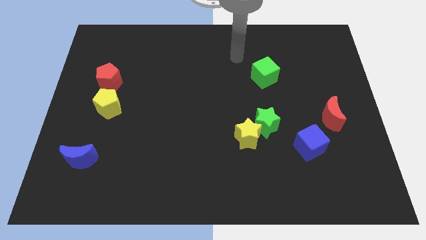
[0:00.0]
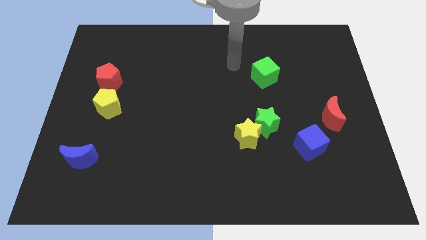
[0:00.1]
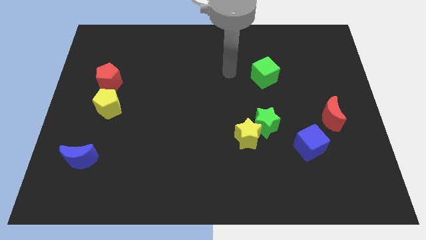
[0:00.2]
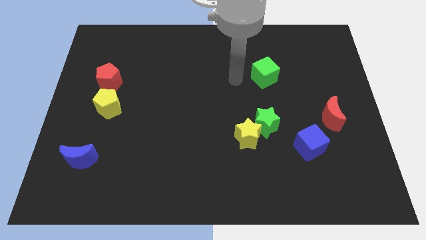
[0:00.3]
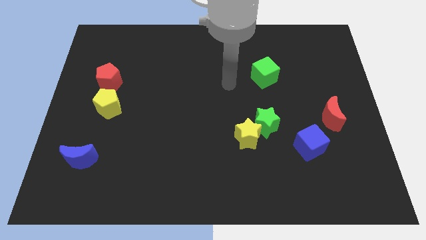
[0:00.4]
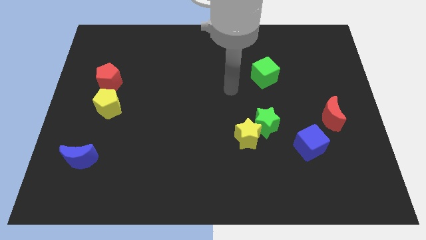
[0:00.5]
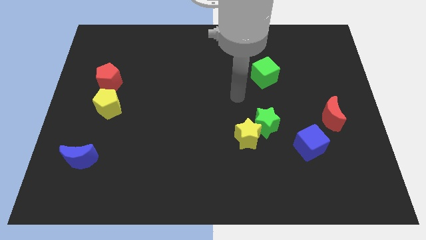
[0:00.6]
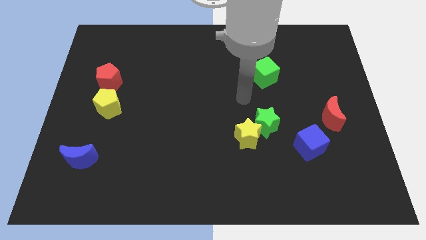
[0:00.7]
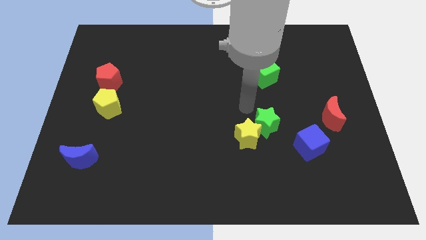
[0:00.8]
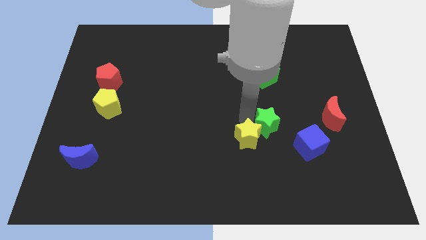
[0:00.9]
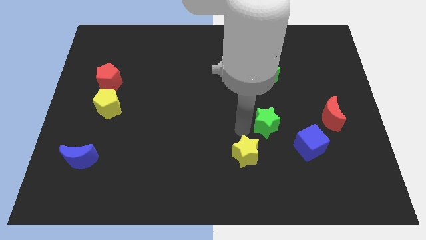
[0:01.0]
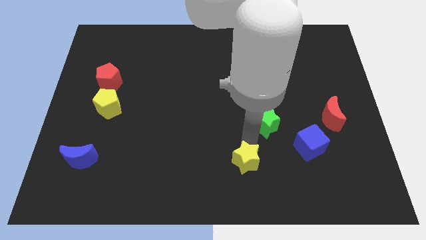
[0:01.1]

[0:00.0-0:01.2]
move the green star away from the yellow star

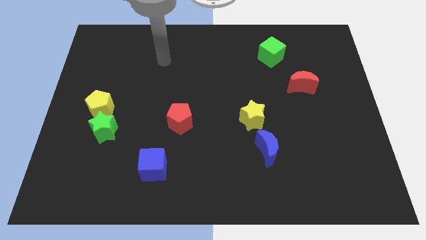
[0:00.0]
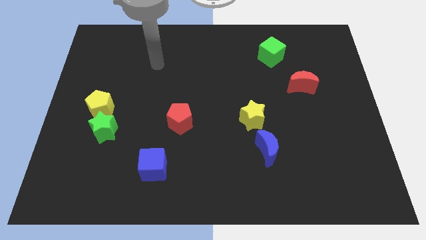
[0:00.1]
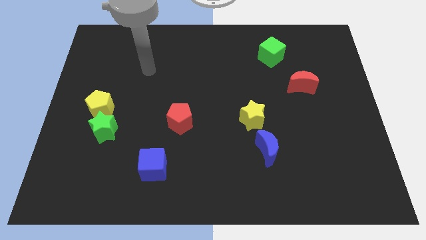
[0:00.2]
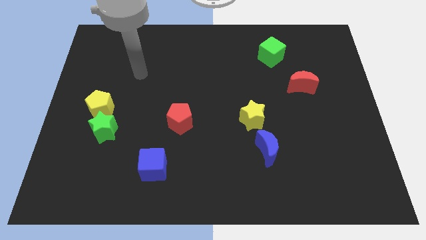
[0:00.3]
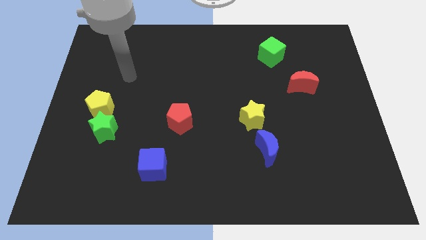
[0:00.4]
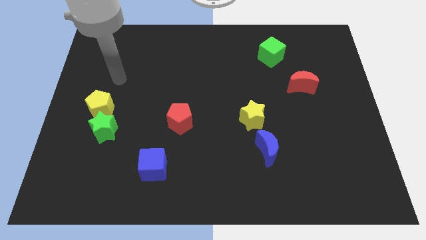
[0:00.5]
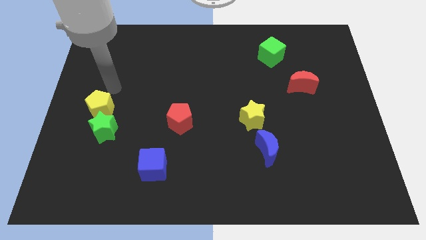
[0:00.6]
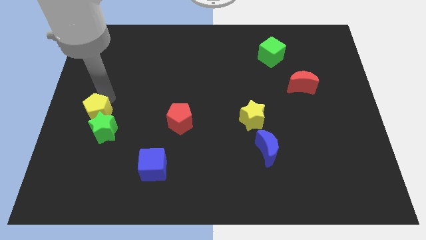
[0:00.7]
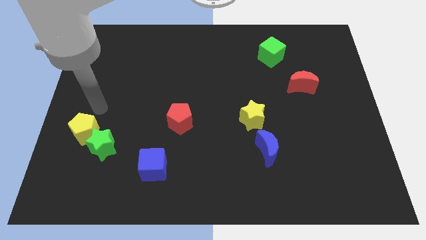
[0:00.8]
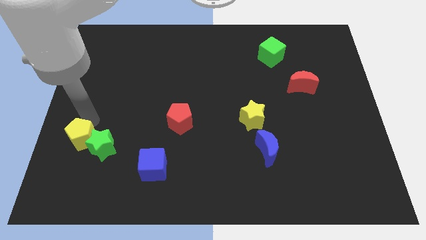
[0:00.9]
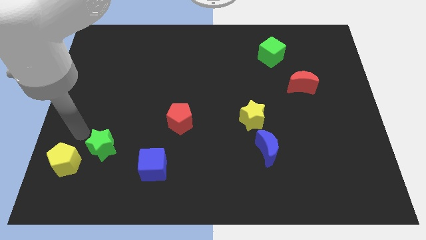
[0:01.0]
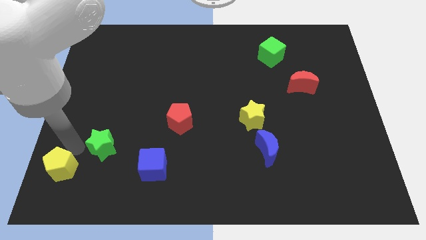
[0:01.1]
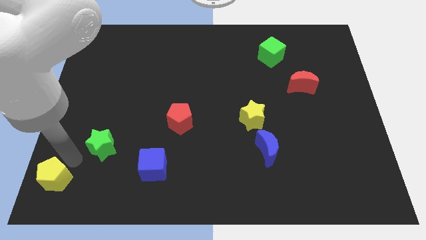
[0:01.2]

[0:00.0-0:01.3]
pull the green star apart from the yellow pentagon

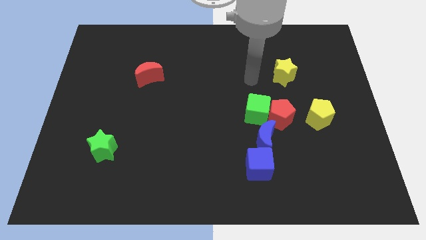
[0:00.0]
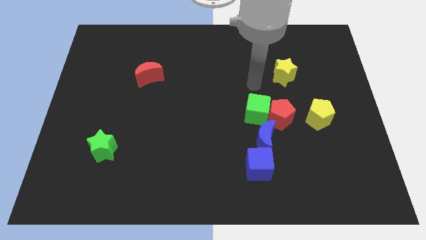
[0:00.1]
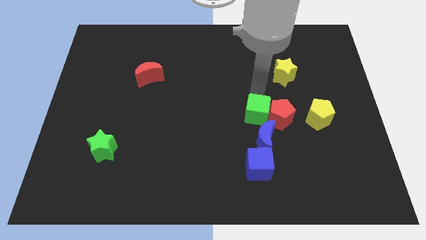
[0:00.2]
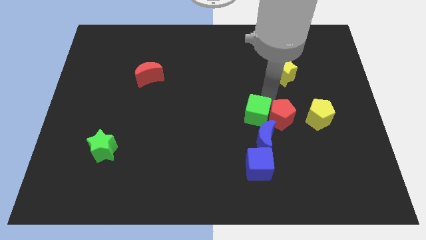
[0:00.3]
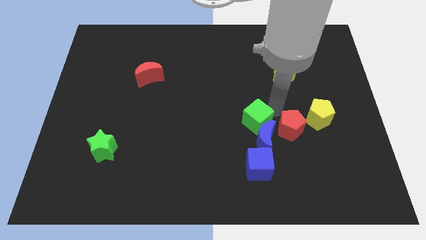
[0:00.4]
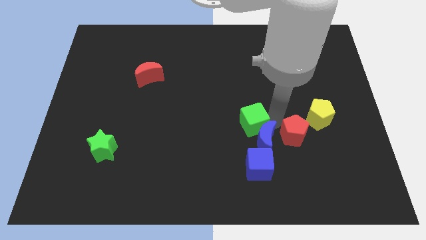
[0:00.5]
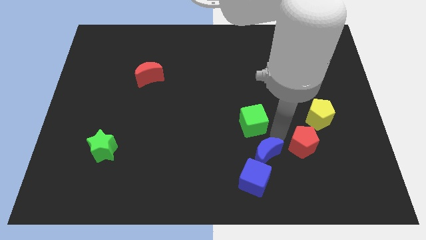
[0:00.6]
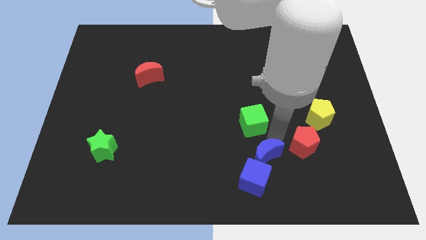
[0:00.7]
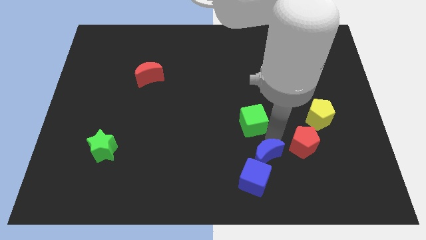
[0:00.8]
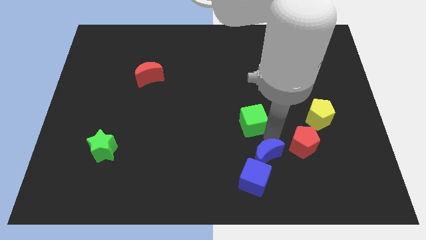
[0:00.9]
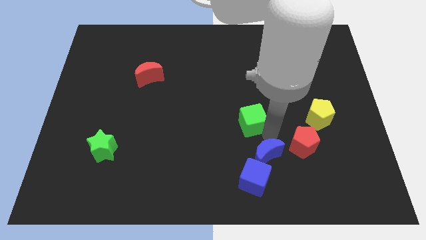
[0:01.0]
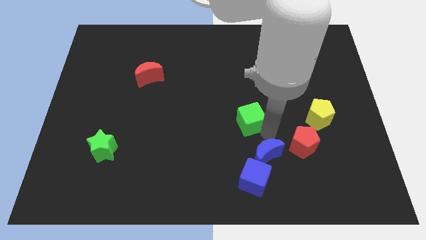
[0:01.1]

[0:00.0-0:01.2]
pull the green cube apart from the red pentagon and blue moon

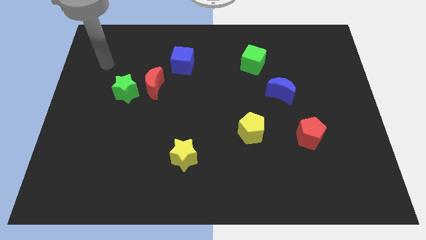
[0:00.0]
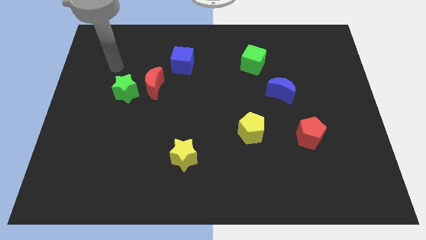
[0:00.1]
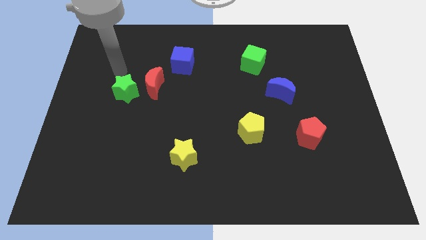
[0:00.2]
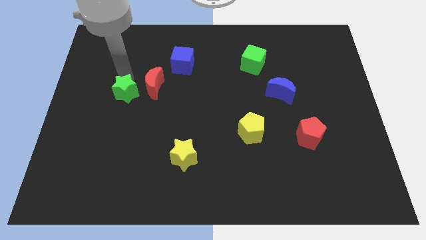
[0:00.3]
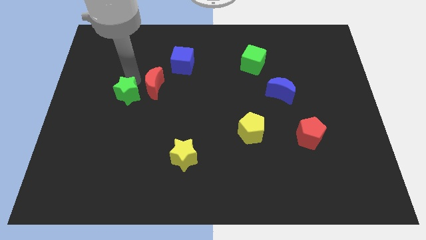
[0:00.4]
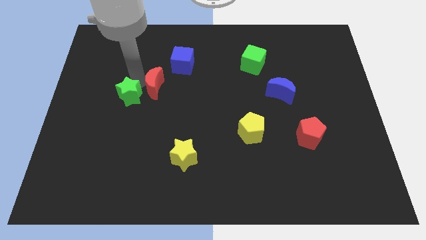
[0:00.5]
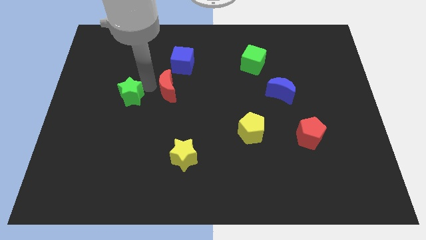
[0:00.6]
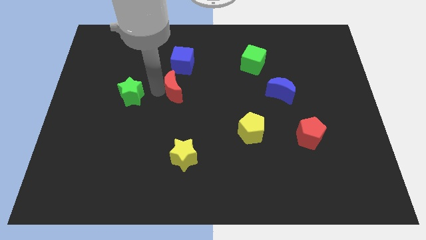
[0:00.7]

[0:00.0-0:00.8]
separate the green star from the red moon

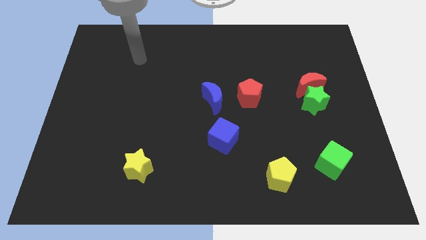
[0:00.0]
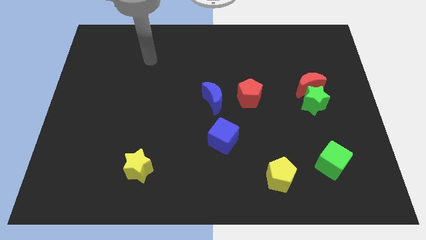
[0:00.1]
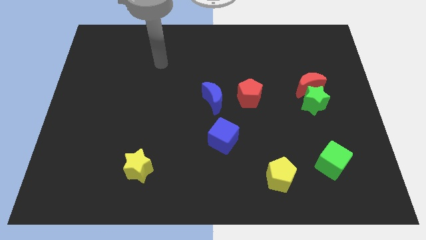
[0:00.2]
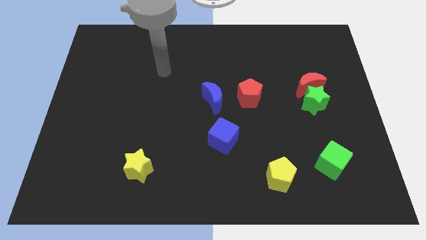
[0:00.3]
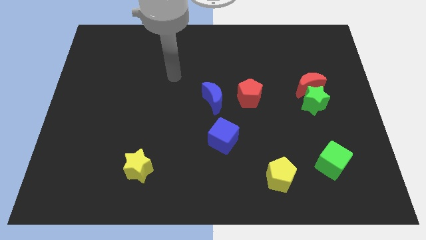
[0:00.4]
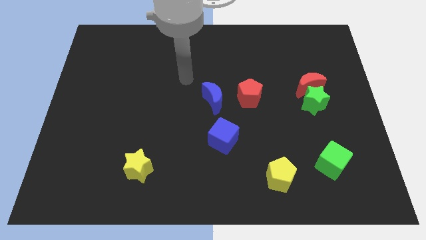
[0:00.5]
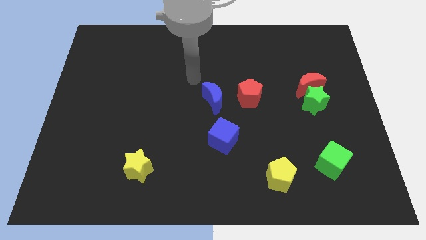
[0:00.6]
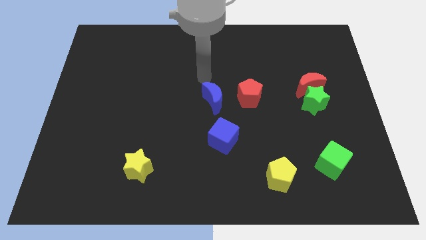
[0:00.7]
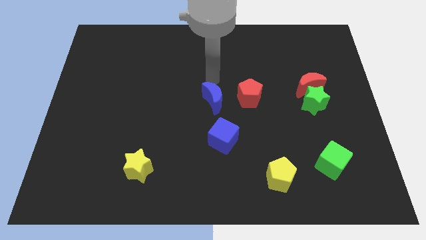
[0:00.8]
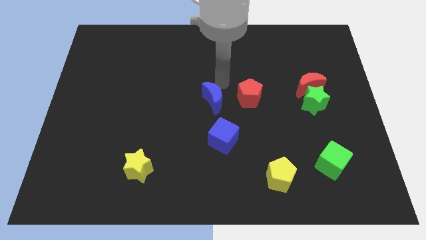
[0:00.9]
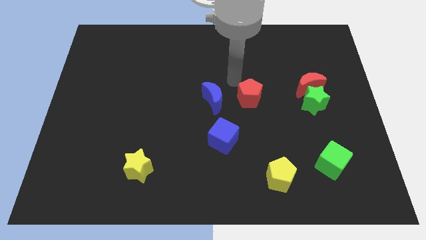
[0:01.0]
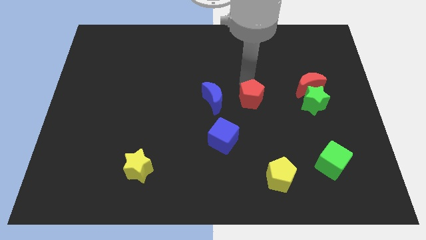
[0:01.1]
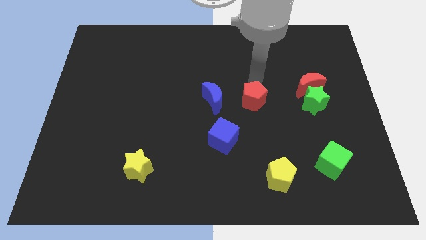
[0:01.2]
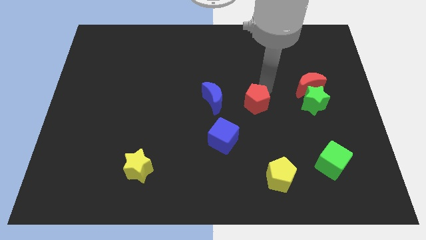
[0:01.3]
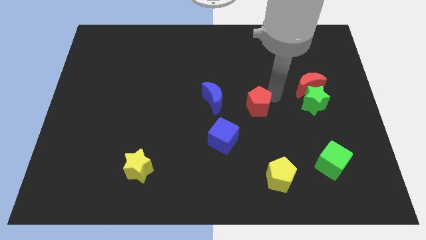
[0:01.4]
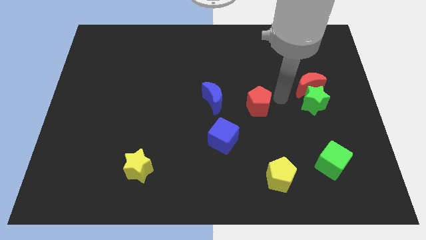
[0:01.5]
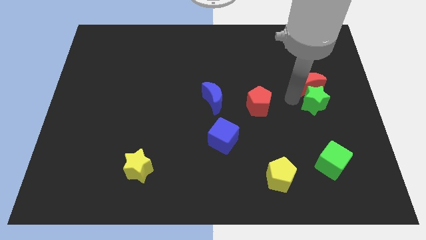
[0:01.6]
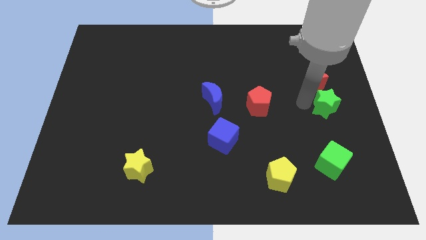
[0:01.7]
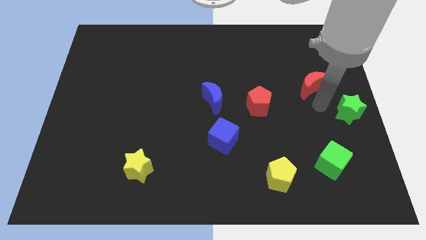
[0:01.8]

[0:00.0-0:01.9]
pull the red moon apart from the green star

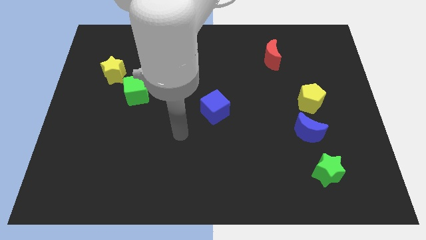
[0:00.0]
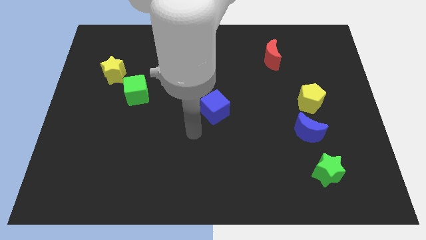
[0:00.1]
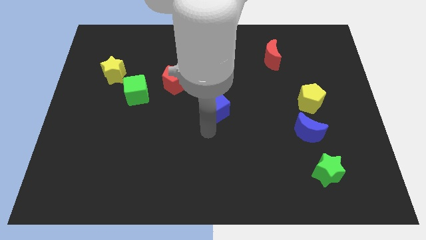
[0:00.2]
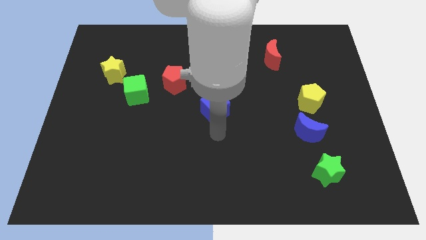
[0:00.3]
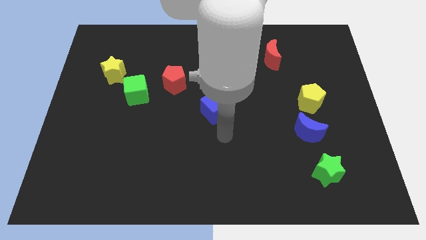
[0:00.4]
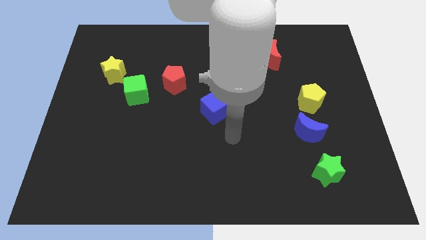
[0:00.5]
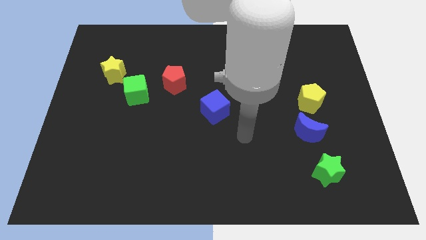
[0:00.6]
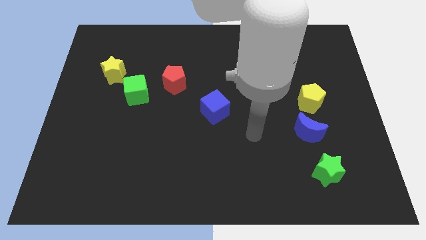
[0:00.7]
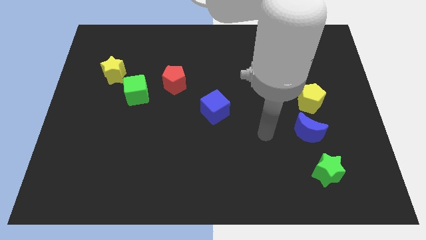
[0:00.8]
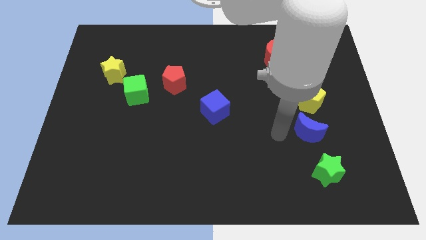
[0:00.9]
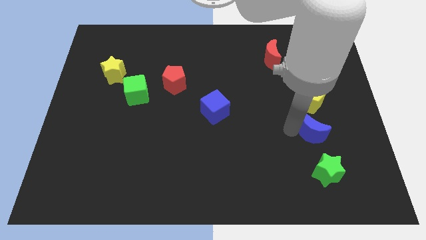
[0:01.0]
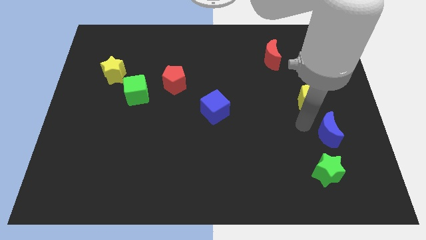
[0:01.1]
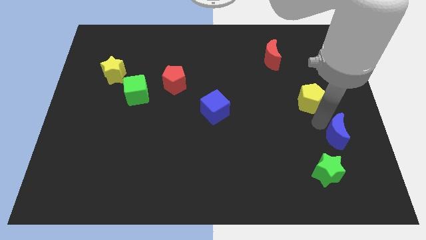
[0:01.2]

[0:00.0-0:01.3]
move the yellow pentagon away from the blue moon

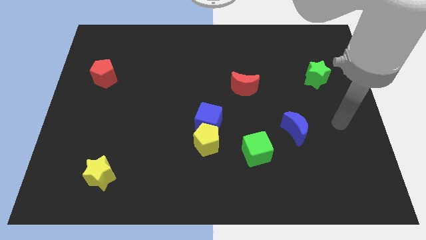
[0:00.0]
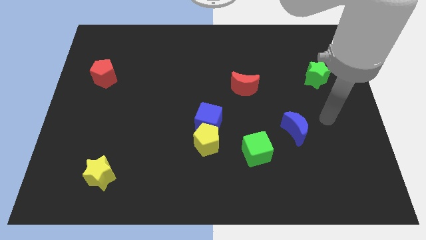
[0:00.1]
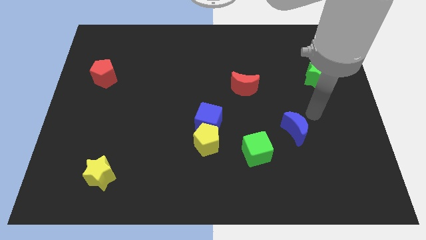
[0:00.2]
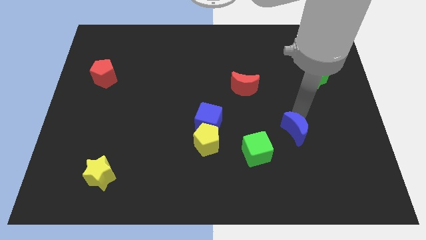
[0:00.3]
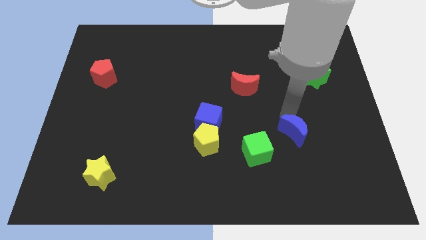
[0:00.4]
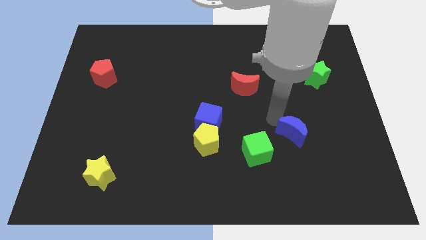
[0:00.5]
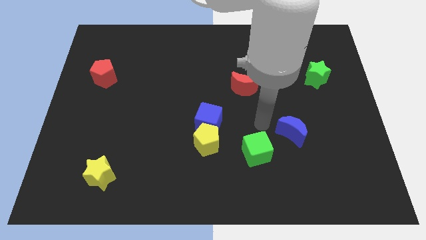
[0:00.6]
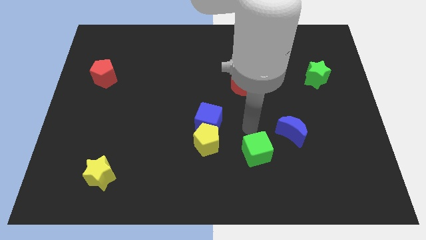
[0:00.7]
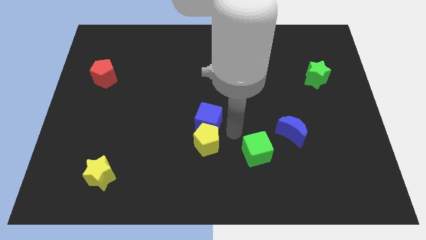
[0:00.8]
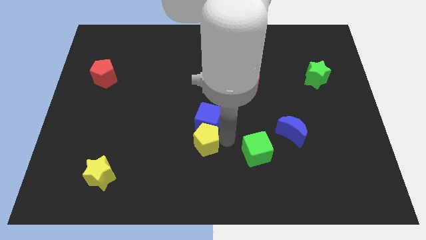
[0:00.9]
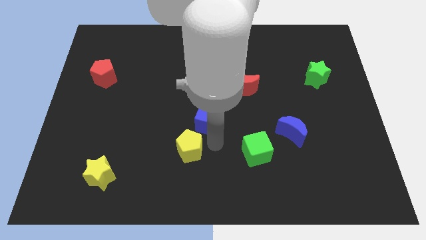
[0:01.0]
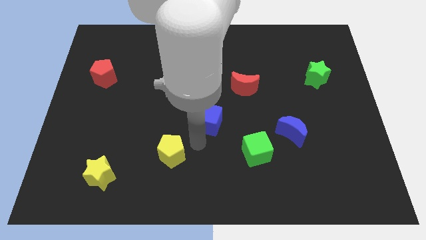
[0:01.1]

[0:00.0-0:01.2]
separate the blue cube from the yellow pentagon

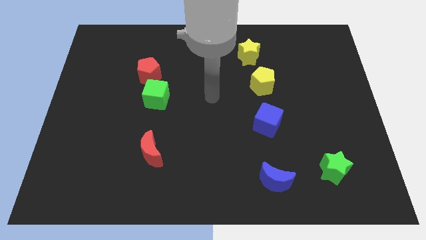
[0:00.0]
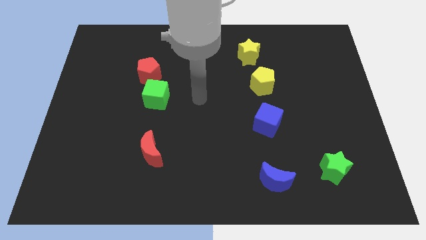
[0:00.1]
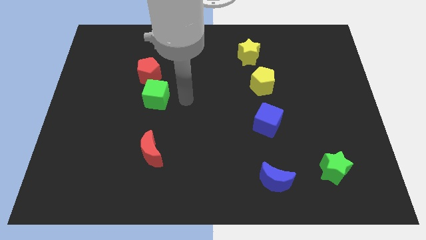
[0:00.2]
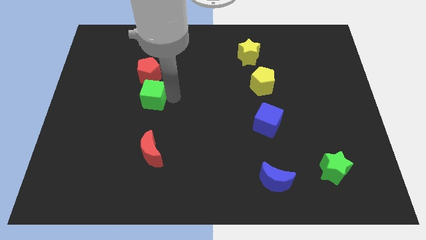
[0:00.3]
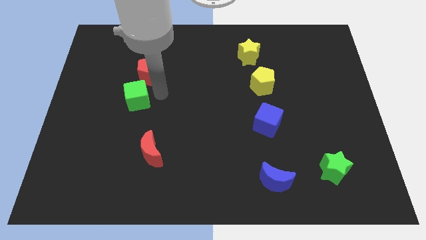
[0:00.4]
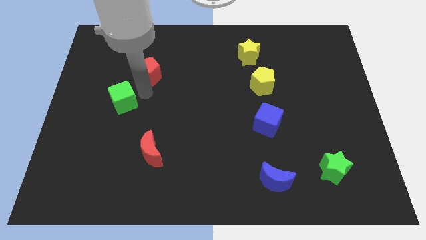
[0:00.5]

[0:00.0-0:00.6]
move the red pentagon away from the green cube
